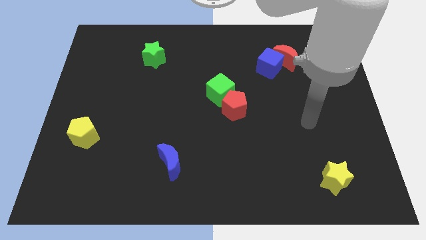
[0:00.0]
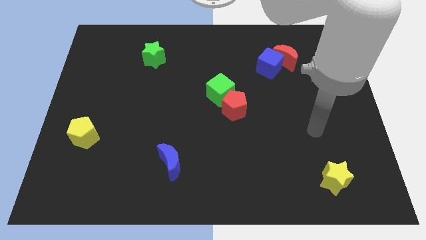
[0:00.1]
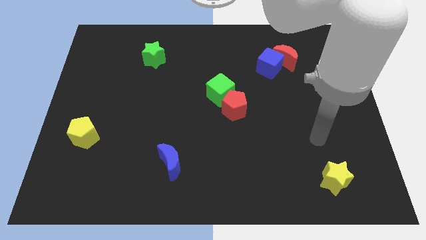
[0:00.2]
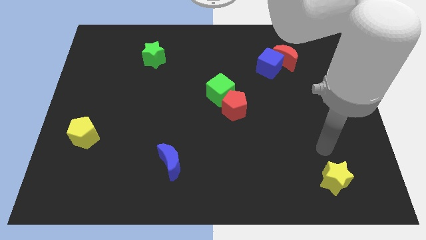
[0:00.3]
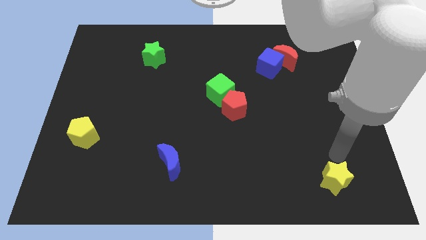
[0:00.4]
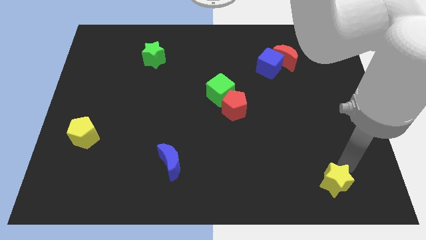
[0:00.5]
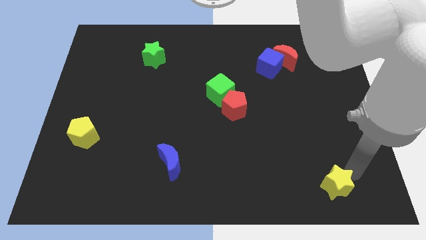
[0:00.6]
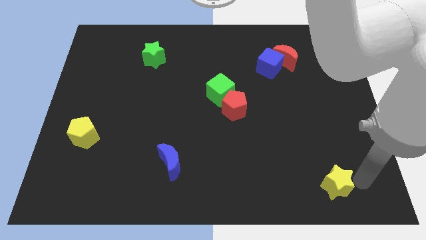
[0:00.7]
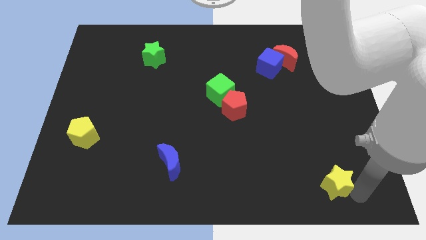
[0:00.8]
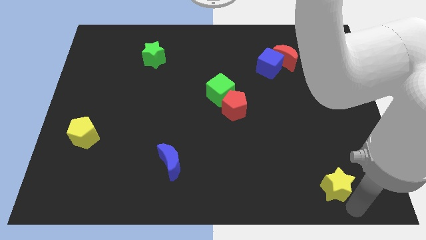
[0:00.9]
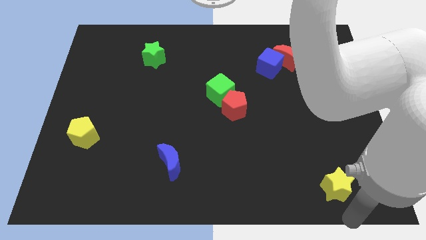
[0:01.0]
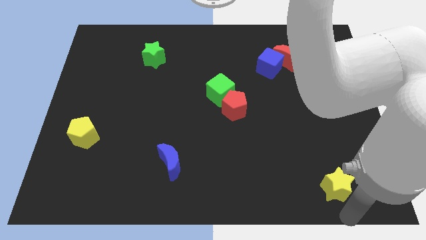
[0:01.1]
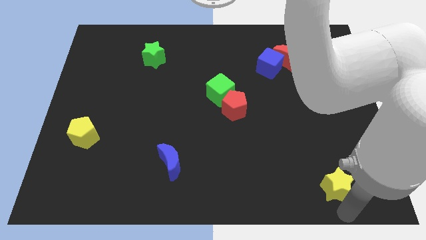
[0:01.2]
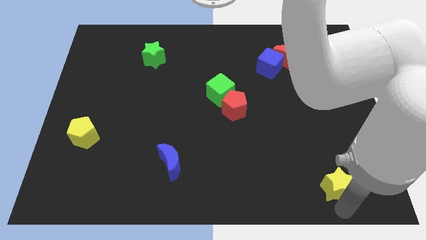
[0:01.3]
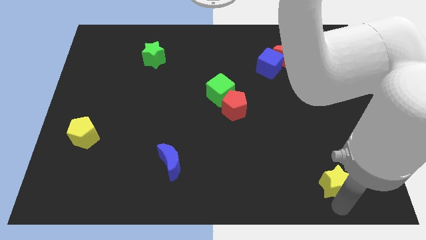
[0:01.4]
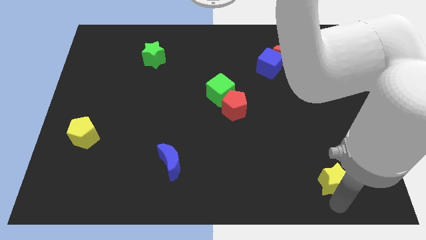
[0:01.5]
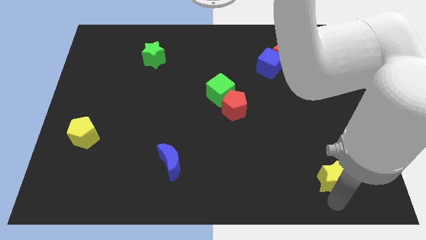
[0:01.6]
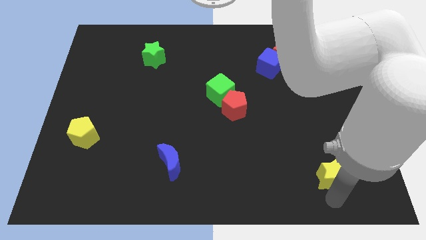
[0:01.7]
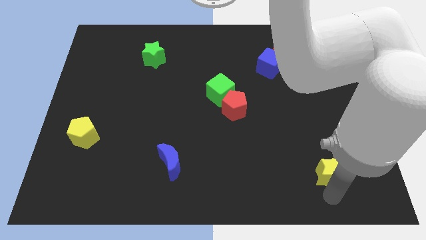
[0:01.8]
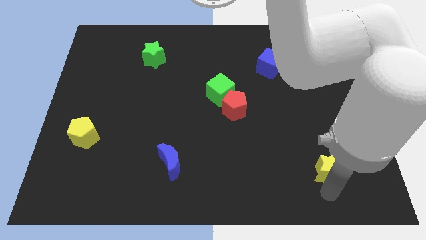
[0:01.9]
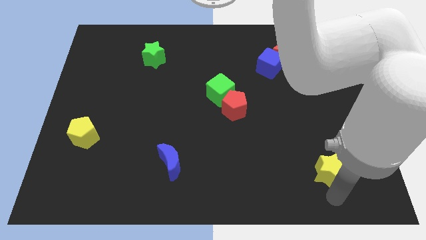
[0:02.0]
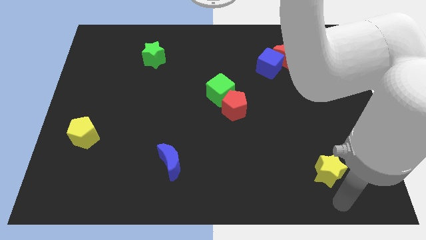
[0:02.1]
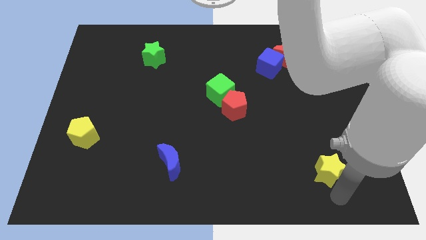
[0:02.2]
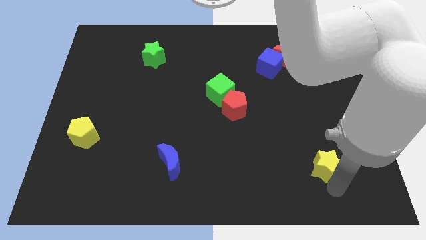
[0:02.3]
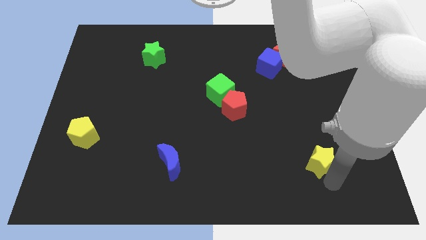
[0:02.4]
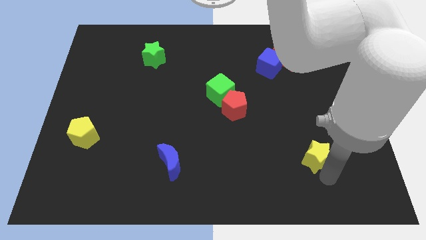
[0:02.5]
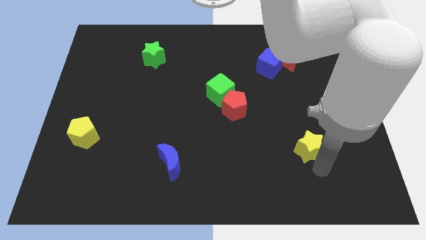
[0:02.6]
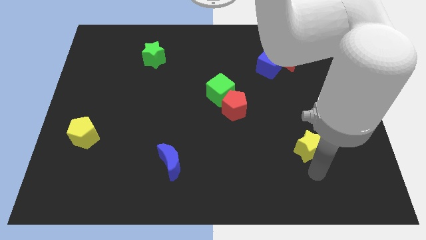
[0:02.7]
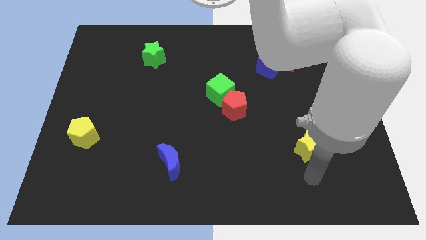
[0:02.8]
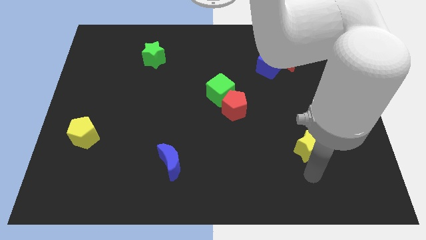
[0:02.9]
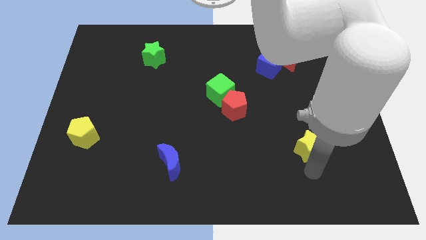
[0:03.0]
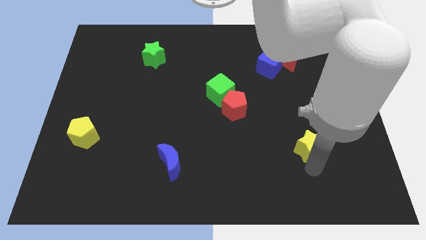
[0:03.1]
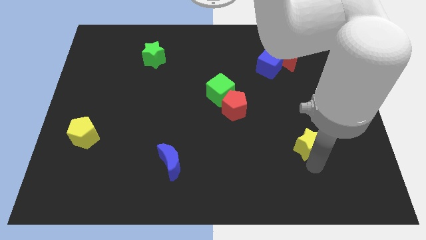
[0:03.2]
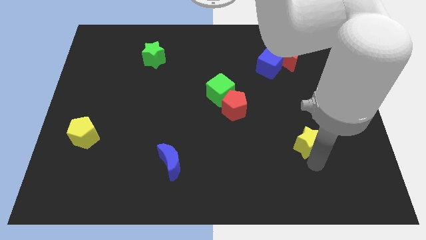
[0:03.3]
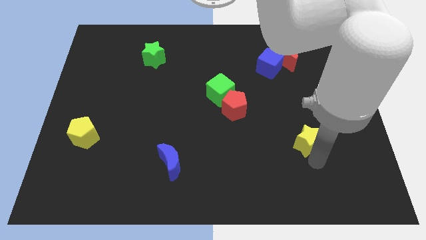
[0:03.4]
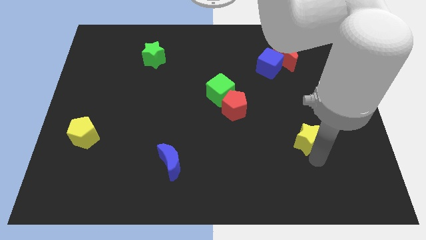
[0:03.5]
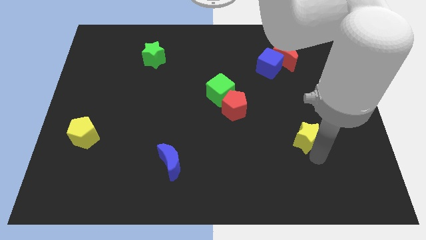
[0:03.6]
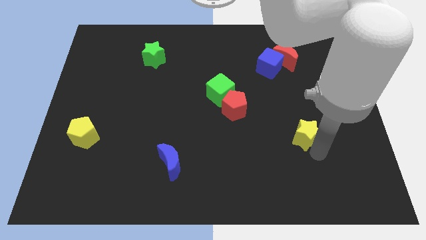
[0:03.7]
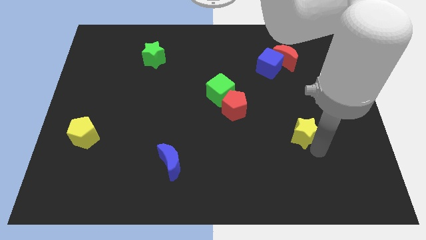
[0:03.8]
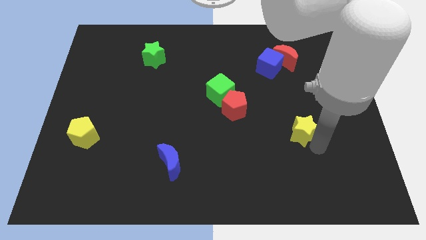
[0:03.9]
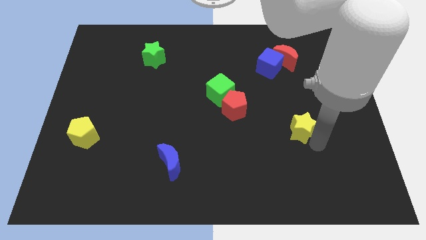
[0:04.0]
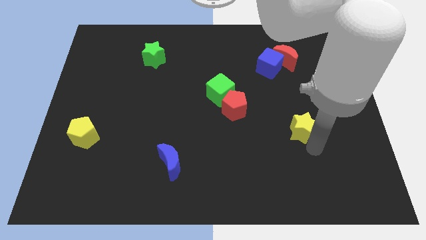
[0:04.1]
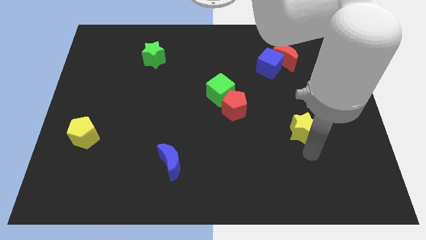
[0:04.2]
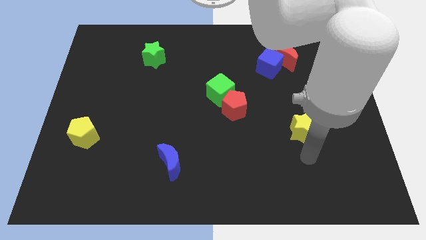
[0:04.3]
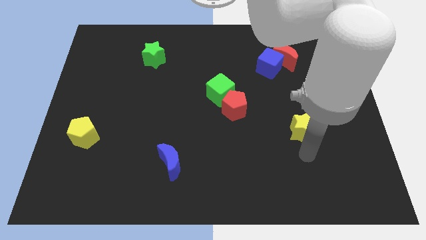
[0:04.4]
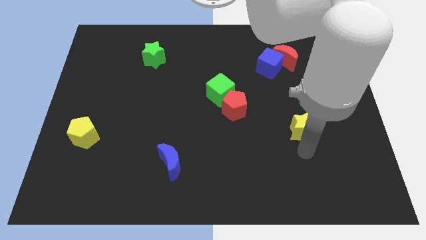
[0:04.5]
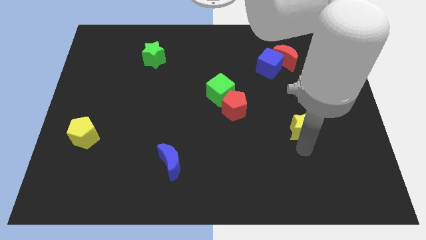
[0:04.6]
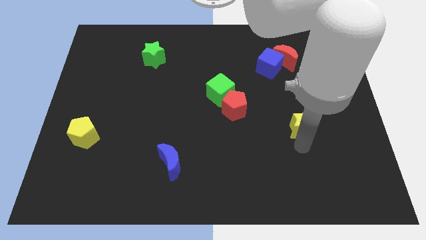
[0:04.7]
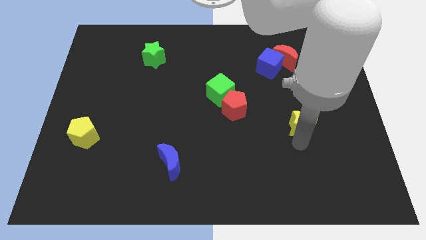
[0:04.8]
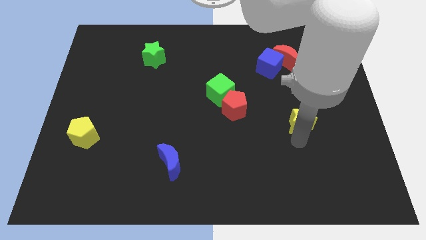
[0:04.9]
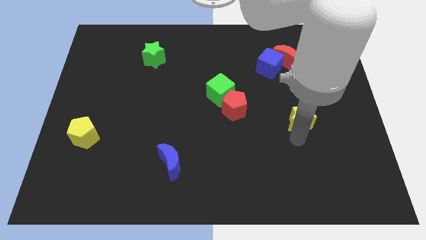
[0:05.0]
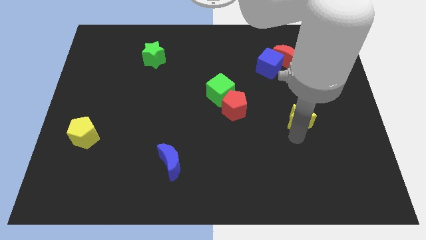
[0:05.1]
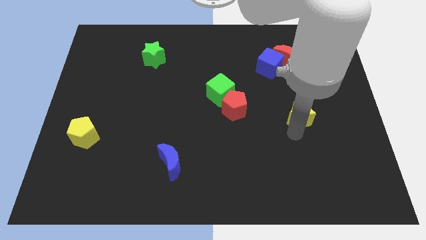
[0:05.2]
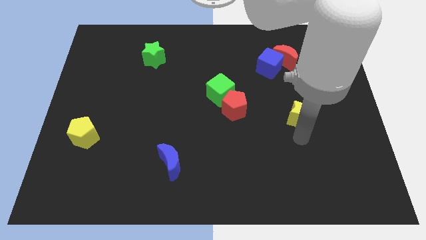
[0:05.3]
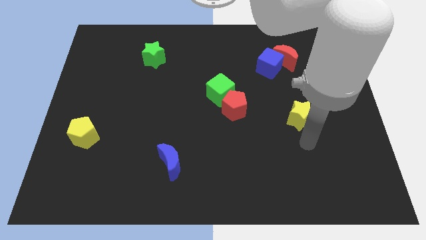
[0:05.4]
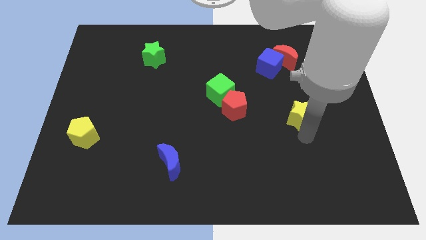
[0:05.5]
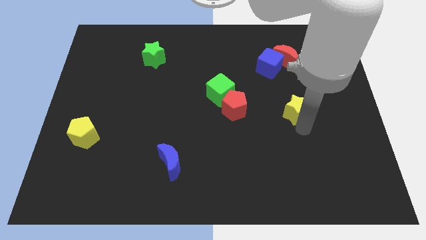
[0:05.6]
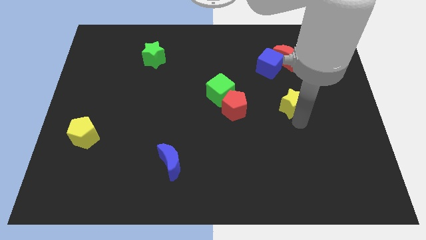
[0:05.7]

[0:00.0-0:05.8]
put the yellow star to the bottom of the red moon

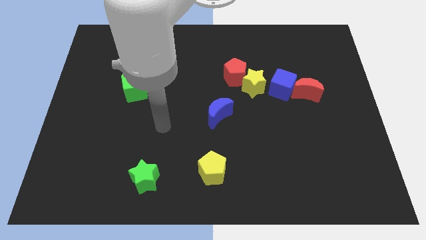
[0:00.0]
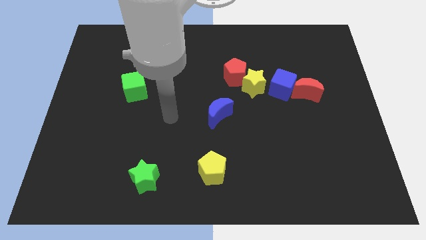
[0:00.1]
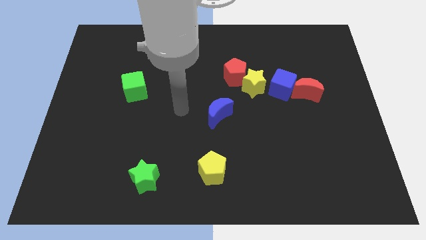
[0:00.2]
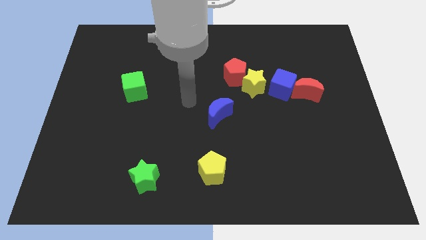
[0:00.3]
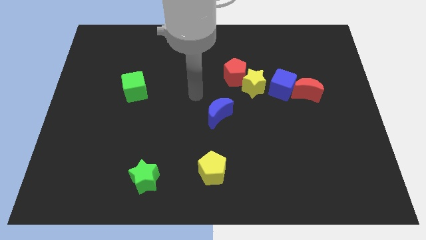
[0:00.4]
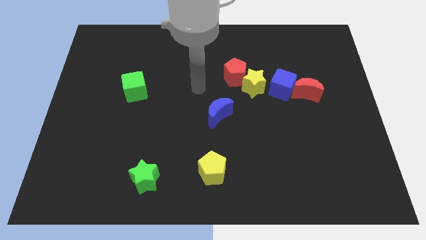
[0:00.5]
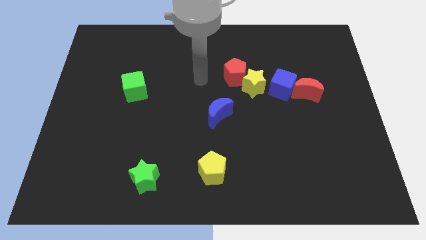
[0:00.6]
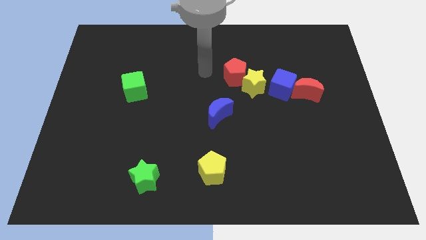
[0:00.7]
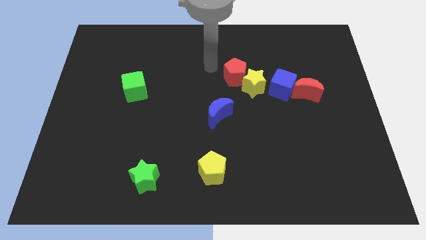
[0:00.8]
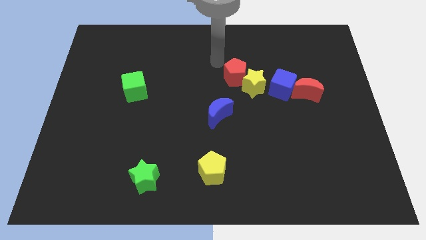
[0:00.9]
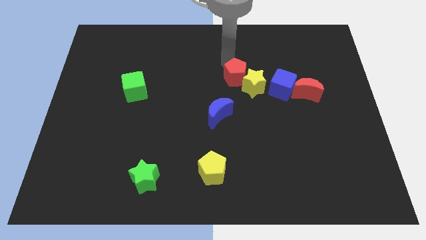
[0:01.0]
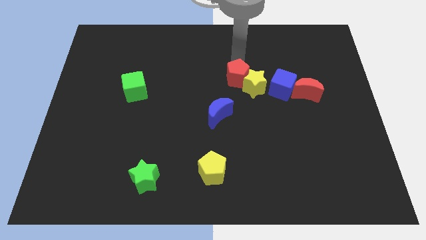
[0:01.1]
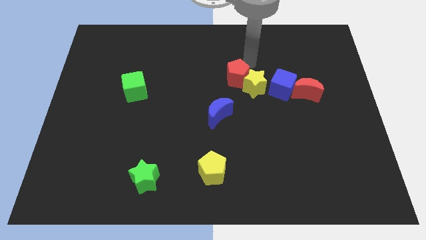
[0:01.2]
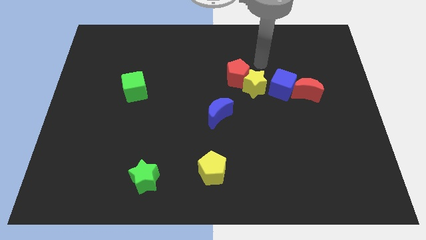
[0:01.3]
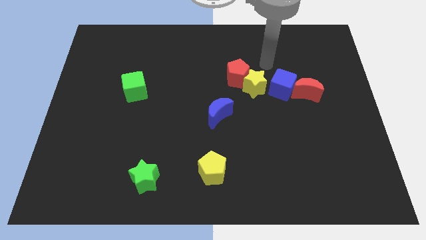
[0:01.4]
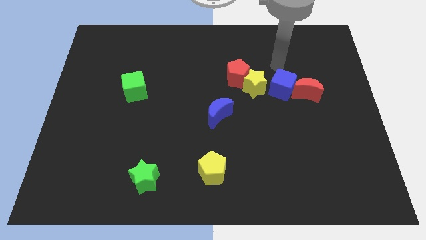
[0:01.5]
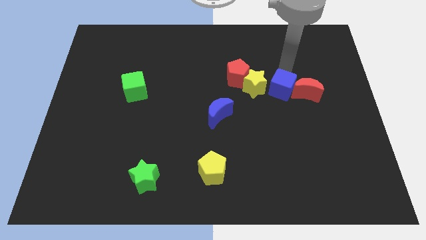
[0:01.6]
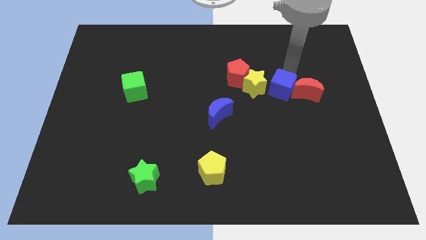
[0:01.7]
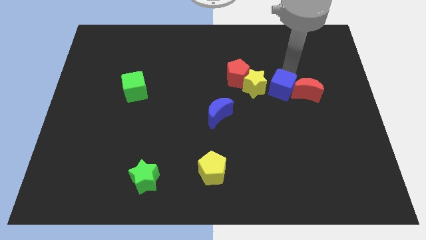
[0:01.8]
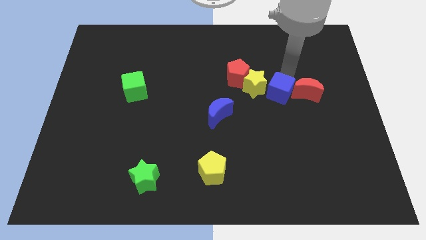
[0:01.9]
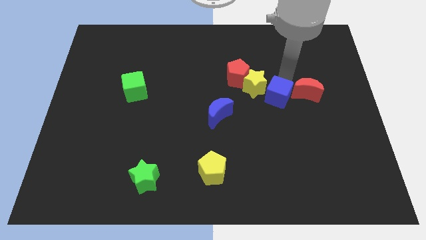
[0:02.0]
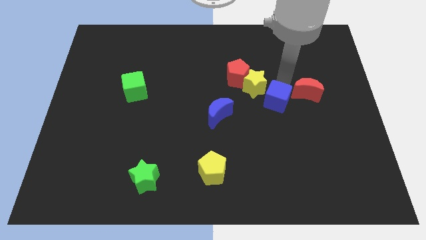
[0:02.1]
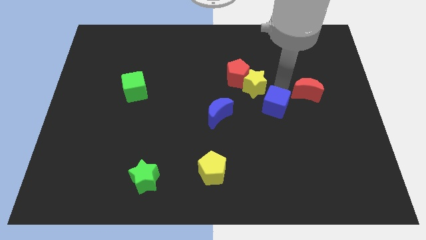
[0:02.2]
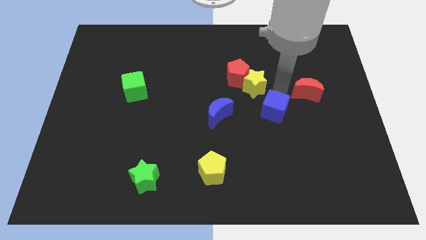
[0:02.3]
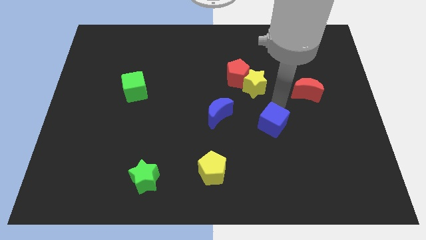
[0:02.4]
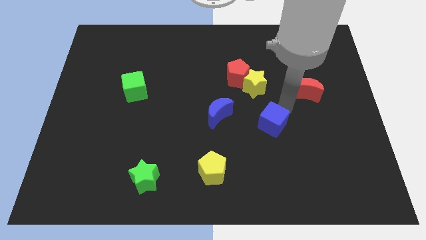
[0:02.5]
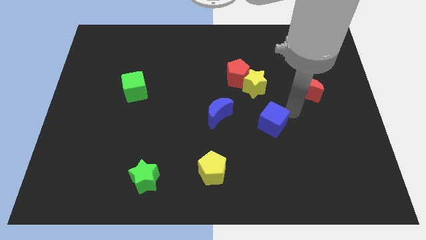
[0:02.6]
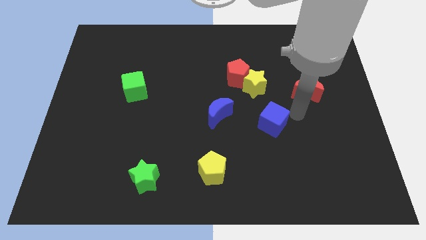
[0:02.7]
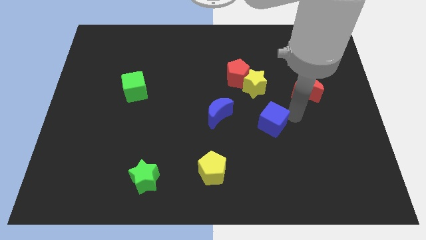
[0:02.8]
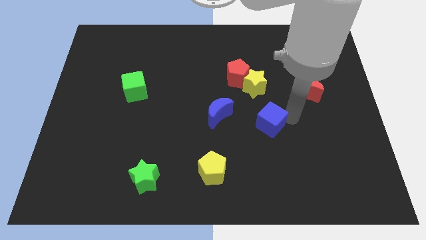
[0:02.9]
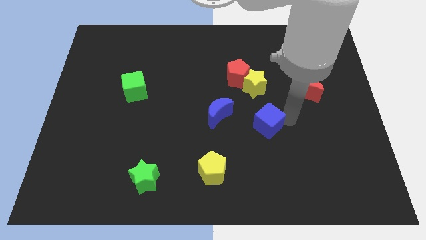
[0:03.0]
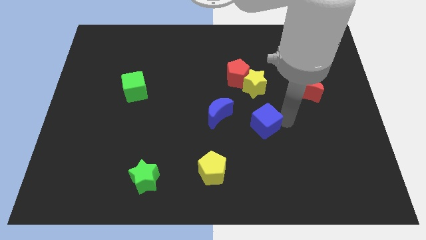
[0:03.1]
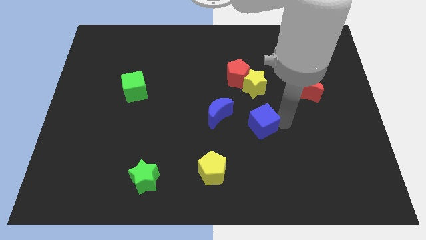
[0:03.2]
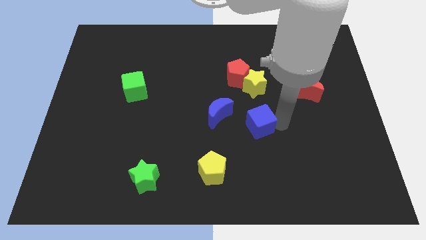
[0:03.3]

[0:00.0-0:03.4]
put the blue cube to the bottom right of the blue moon
